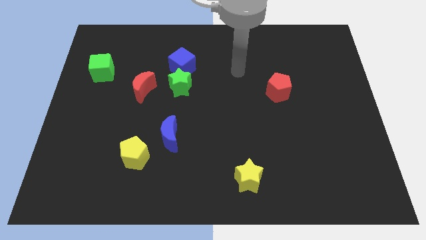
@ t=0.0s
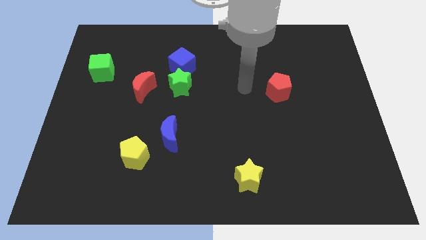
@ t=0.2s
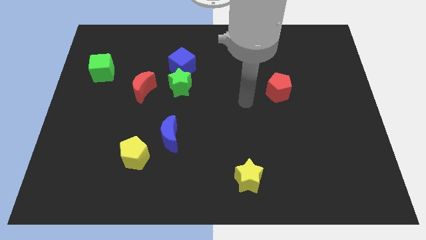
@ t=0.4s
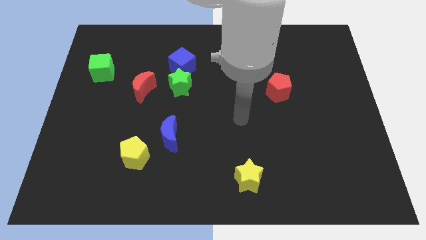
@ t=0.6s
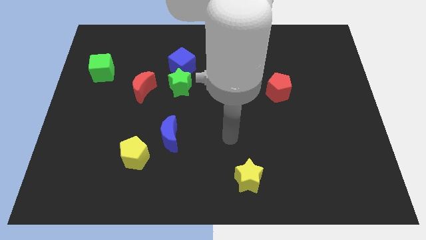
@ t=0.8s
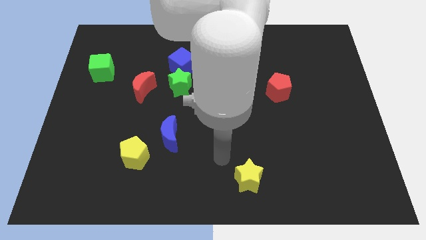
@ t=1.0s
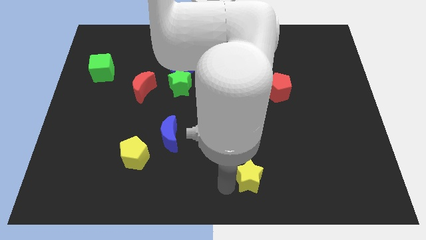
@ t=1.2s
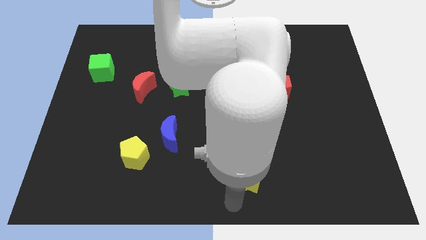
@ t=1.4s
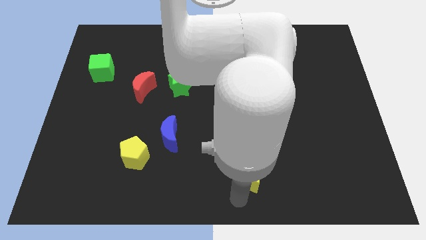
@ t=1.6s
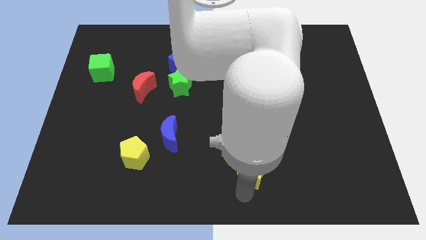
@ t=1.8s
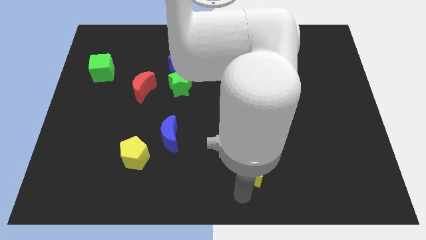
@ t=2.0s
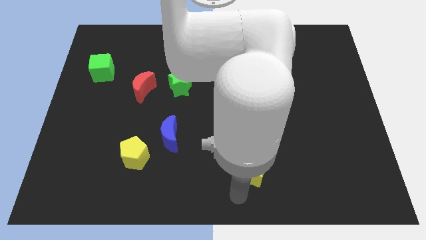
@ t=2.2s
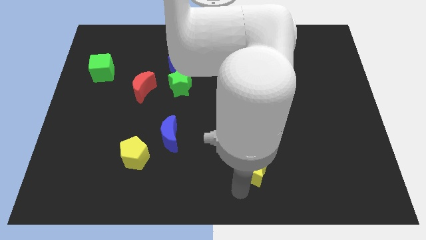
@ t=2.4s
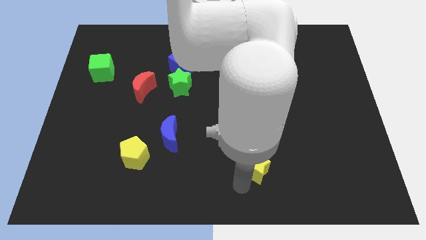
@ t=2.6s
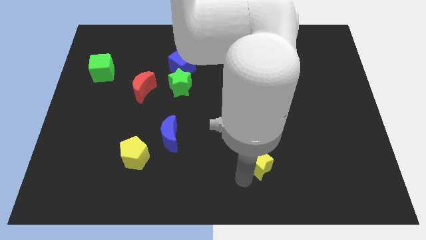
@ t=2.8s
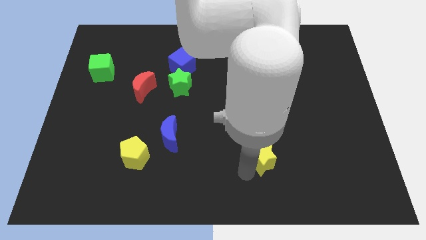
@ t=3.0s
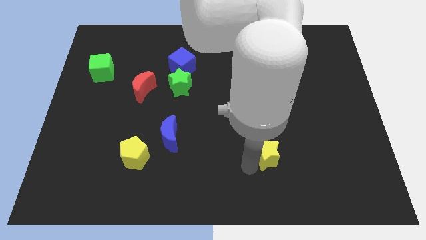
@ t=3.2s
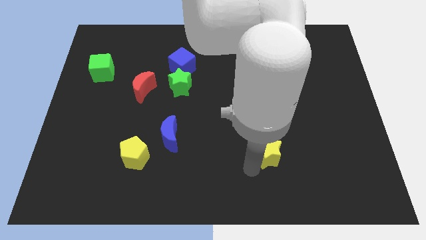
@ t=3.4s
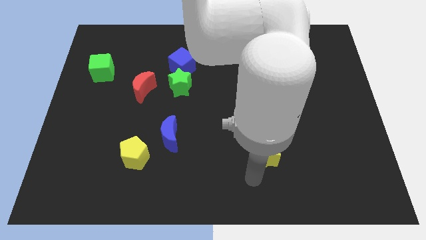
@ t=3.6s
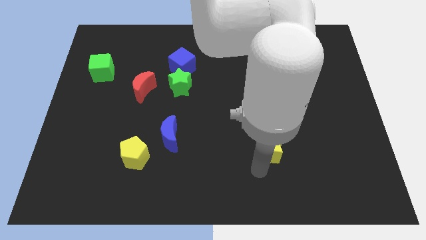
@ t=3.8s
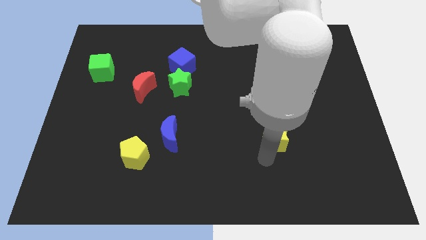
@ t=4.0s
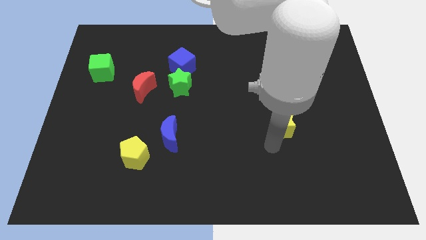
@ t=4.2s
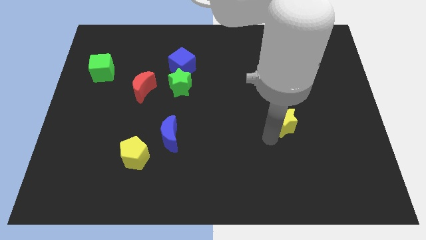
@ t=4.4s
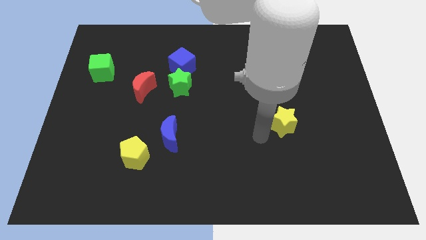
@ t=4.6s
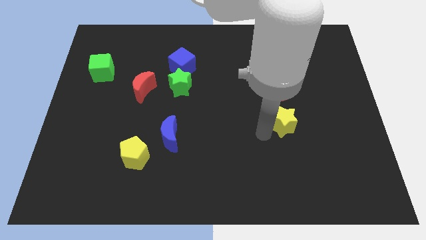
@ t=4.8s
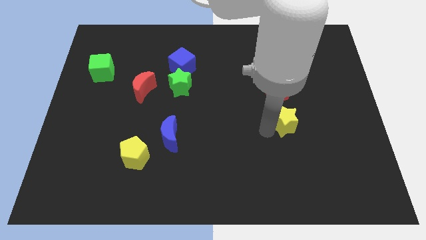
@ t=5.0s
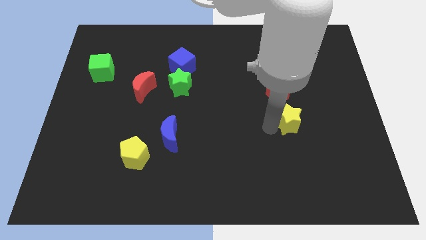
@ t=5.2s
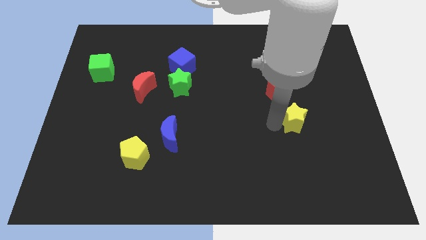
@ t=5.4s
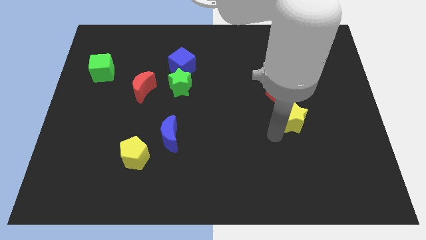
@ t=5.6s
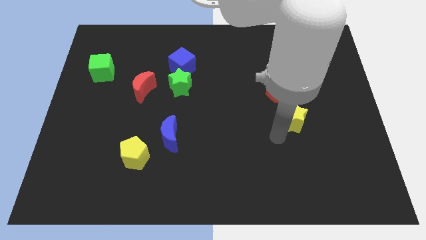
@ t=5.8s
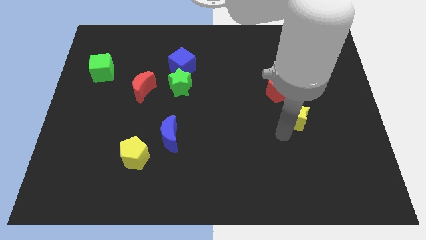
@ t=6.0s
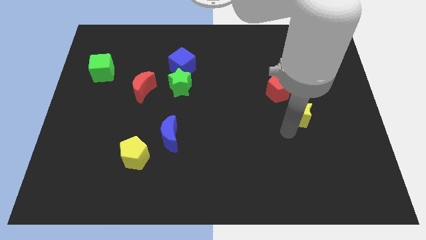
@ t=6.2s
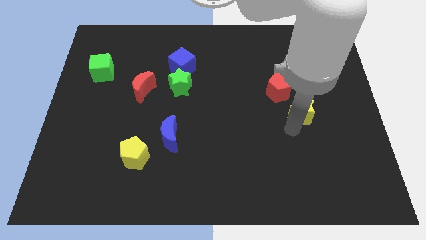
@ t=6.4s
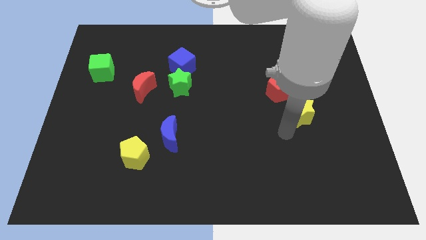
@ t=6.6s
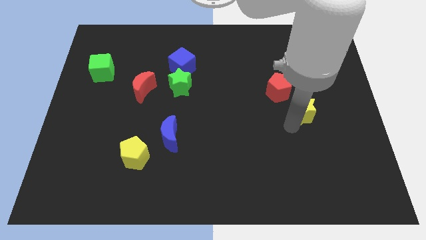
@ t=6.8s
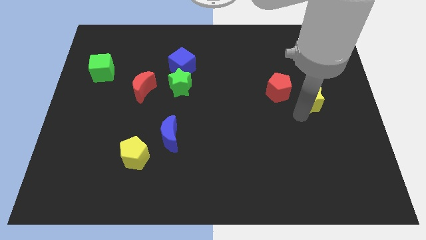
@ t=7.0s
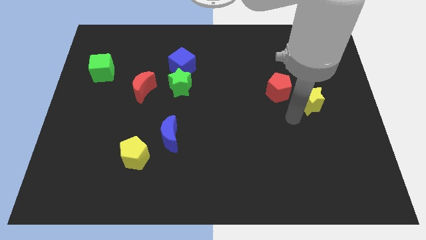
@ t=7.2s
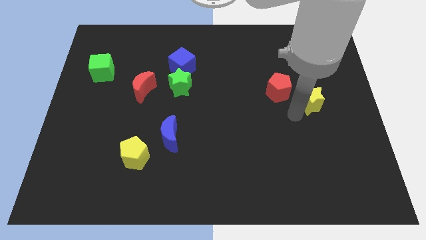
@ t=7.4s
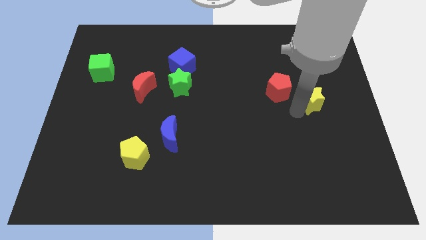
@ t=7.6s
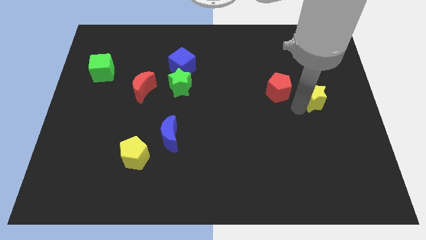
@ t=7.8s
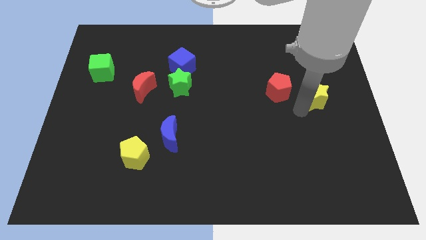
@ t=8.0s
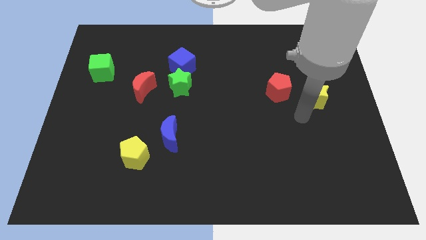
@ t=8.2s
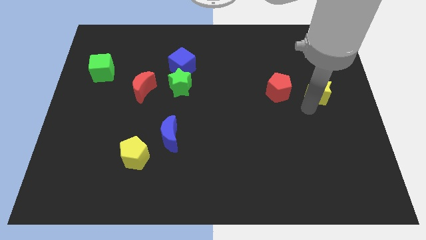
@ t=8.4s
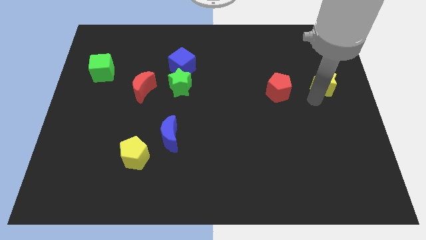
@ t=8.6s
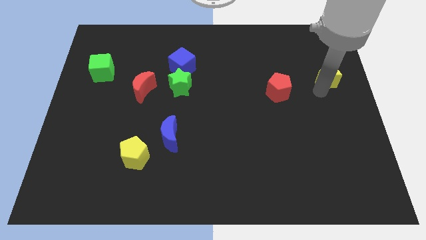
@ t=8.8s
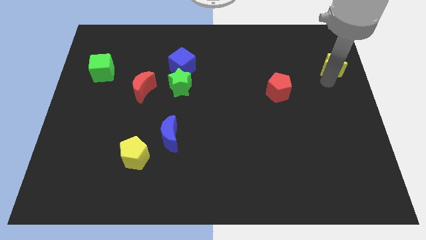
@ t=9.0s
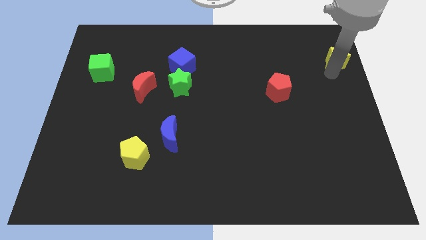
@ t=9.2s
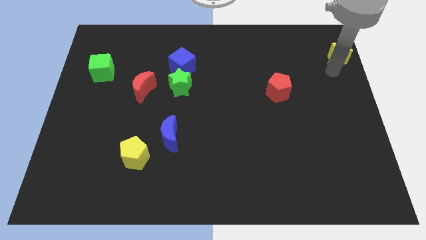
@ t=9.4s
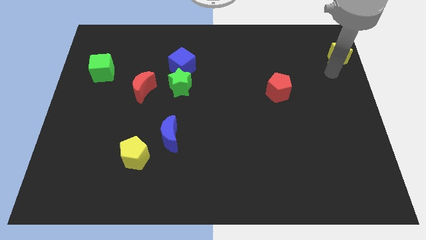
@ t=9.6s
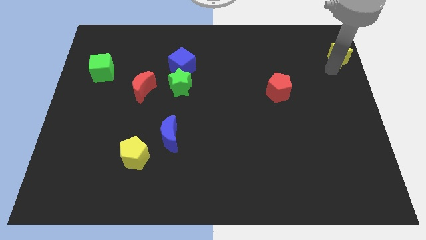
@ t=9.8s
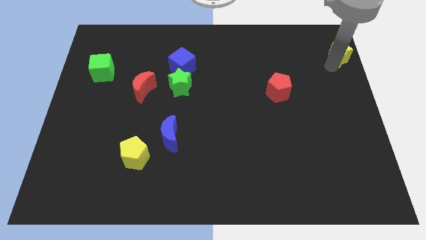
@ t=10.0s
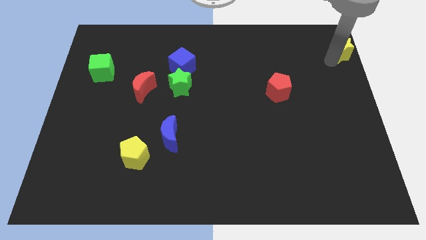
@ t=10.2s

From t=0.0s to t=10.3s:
put the yellow star to the upper right corner

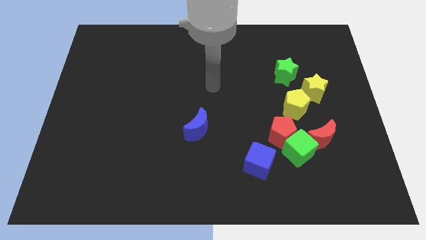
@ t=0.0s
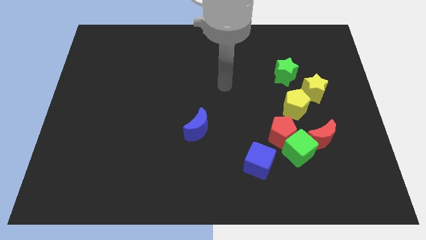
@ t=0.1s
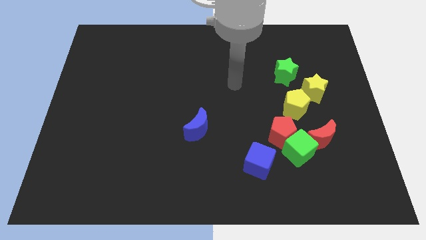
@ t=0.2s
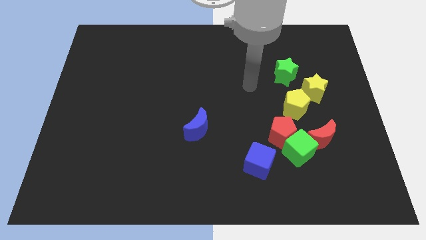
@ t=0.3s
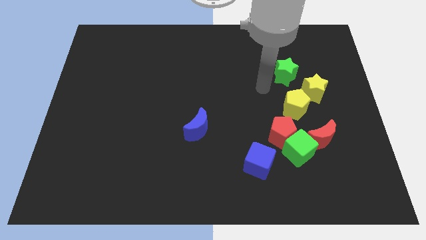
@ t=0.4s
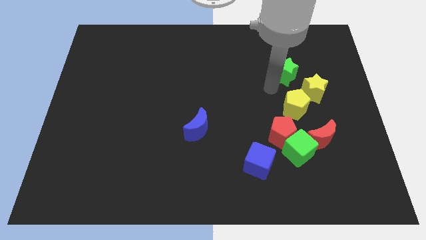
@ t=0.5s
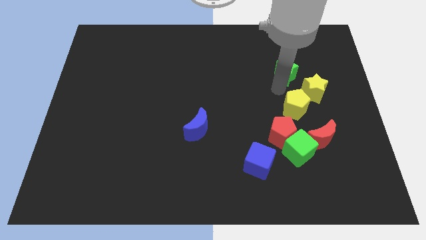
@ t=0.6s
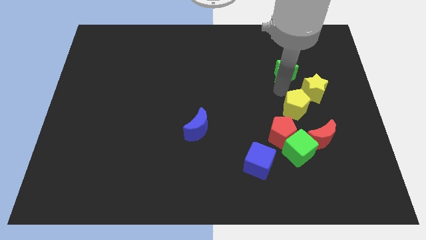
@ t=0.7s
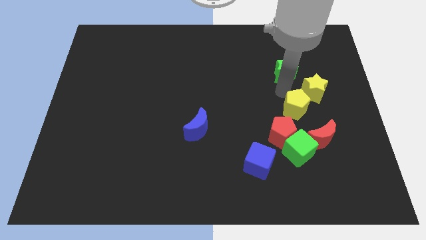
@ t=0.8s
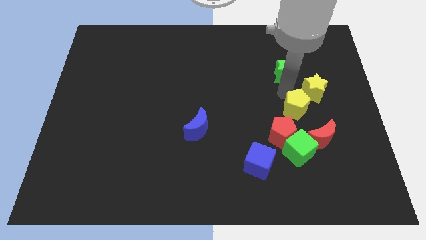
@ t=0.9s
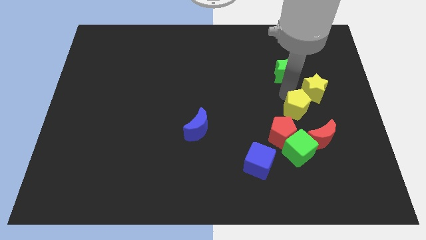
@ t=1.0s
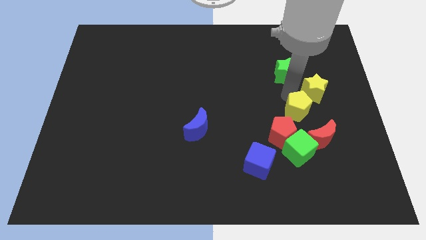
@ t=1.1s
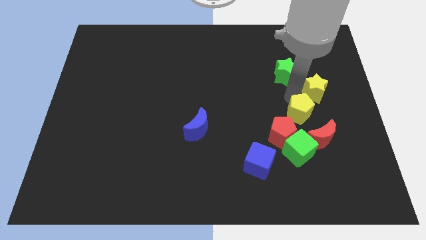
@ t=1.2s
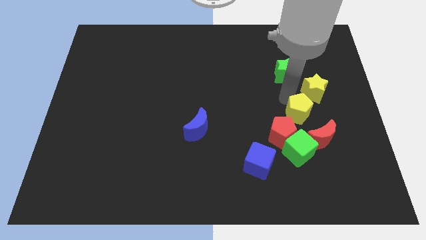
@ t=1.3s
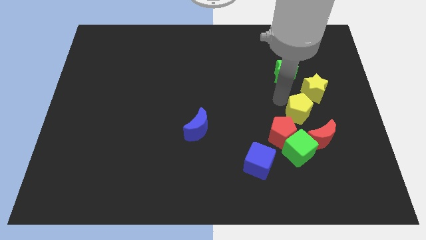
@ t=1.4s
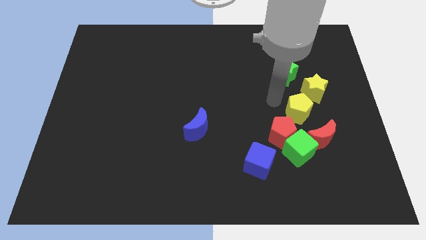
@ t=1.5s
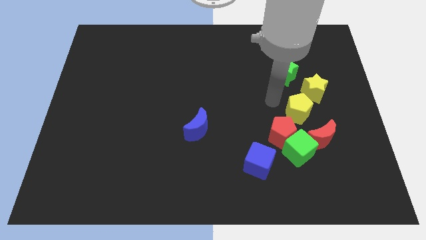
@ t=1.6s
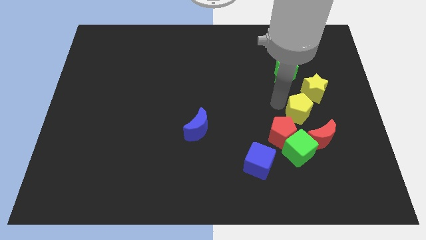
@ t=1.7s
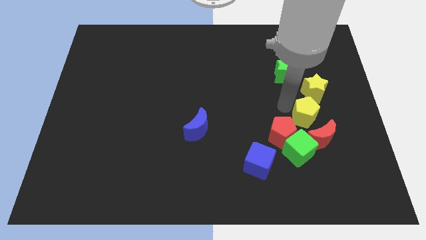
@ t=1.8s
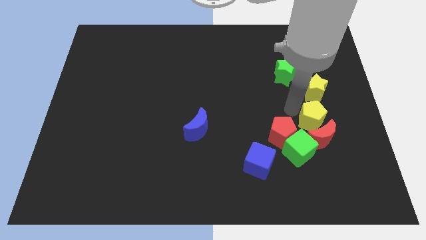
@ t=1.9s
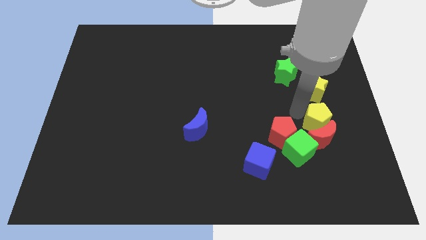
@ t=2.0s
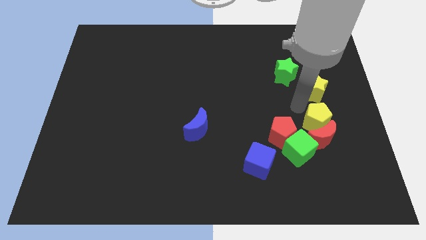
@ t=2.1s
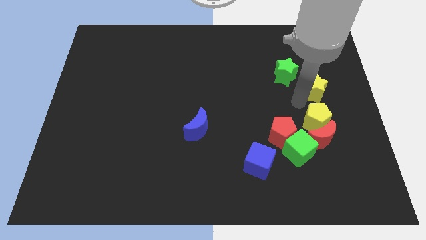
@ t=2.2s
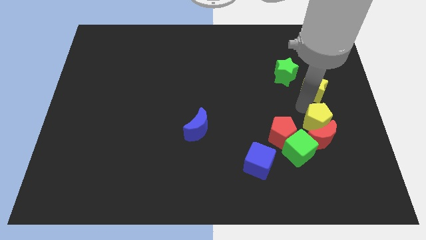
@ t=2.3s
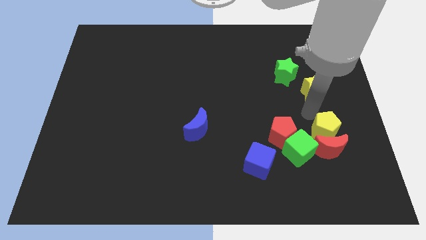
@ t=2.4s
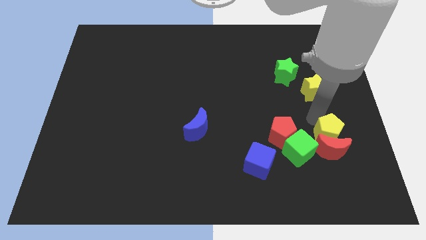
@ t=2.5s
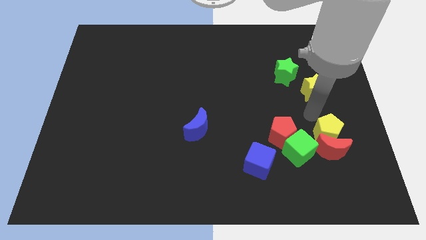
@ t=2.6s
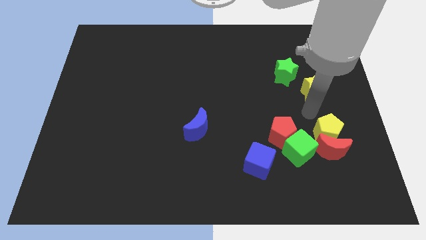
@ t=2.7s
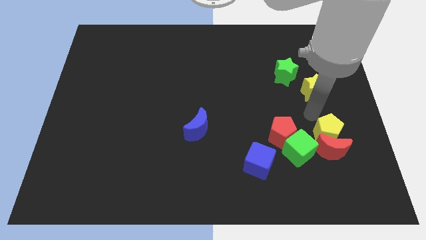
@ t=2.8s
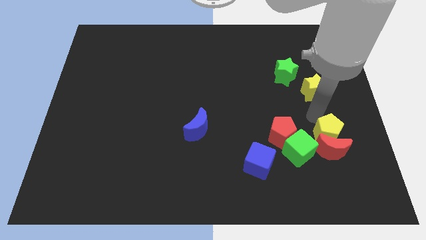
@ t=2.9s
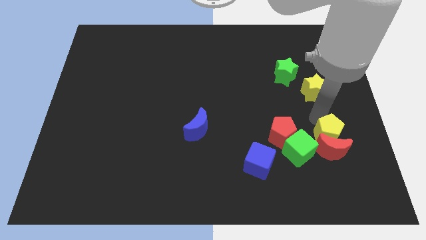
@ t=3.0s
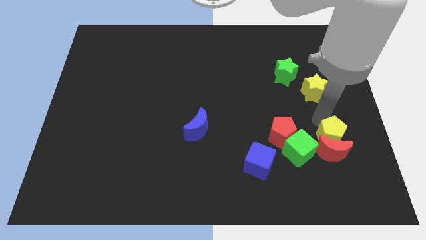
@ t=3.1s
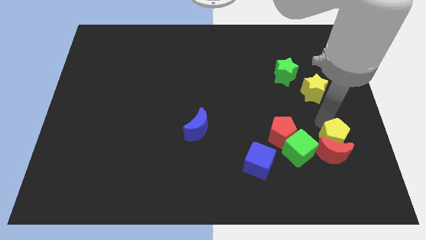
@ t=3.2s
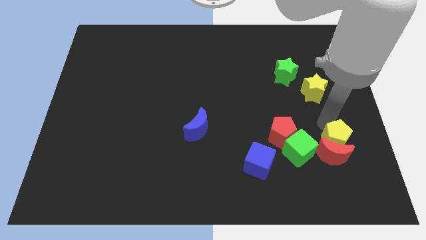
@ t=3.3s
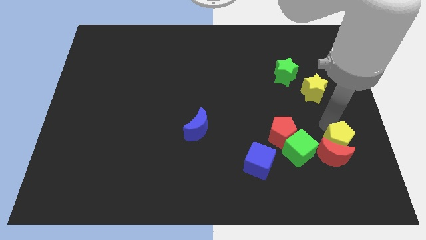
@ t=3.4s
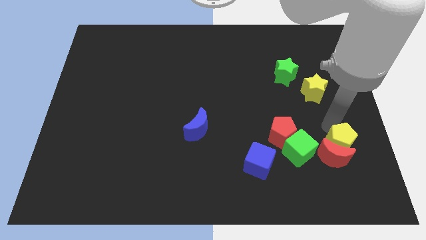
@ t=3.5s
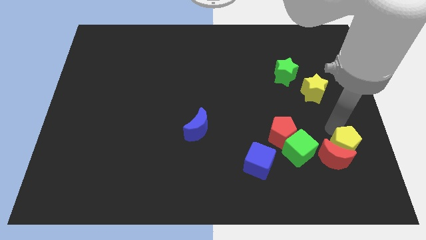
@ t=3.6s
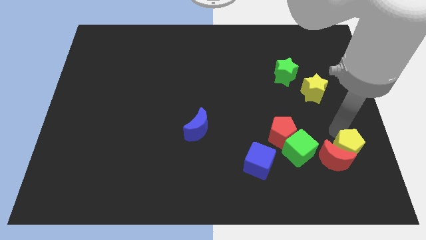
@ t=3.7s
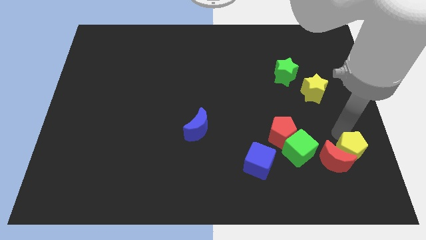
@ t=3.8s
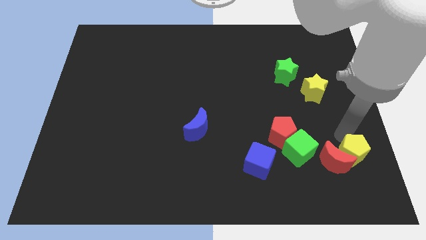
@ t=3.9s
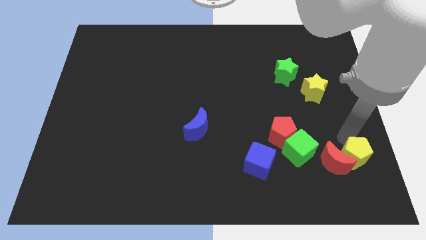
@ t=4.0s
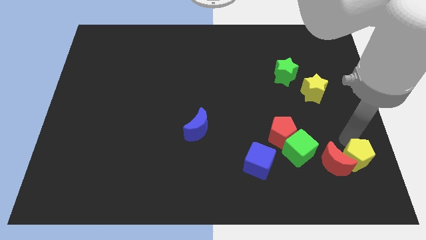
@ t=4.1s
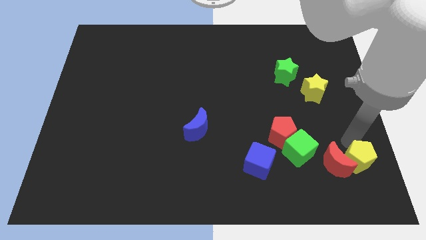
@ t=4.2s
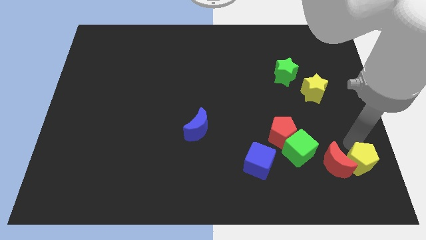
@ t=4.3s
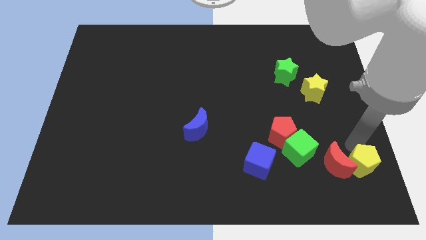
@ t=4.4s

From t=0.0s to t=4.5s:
move the yellow pentagon to the bottom right
